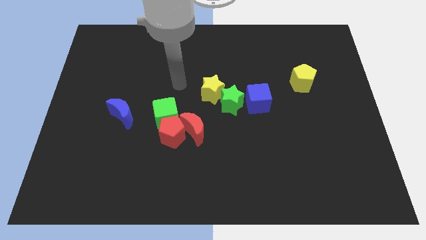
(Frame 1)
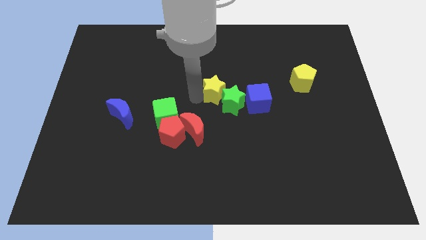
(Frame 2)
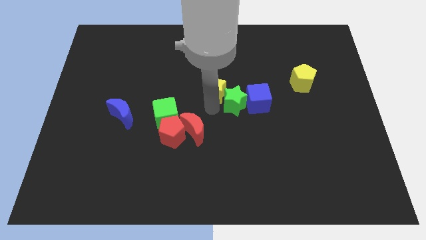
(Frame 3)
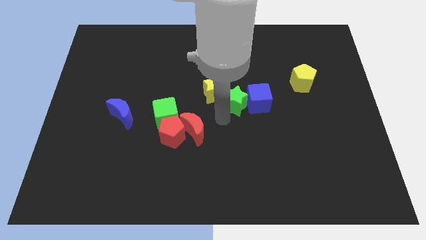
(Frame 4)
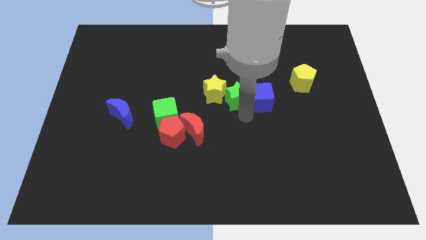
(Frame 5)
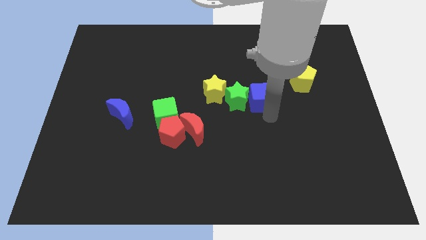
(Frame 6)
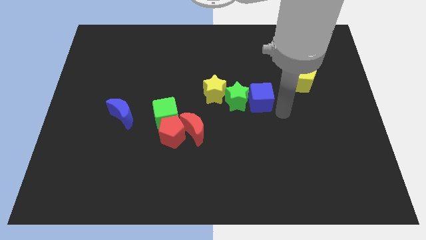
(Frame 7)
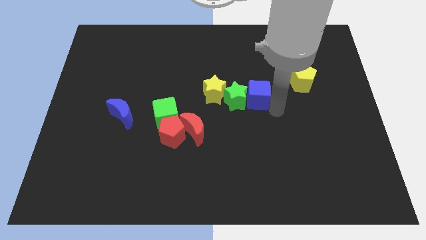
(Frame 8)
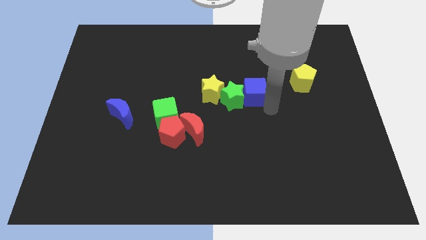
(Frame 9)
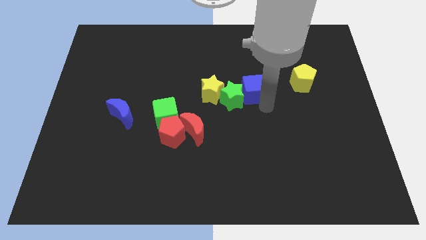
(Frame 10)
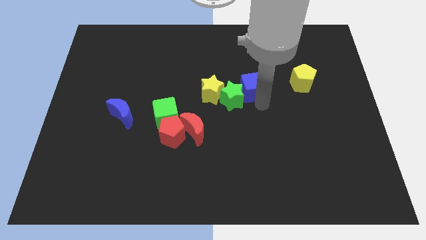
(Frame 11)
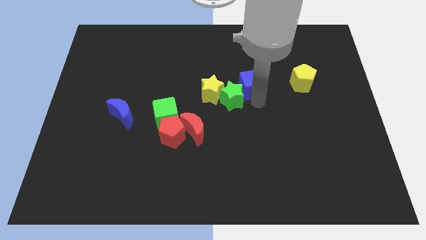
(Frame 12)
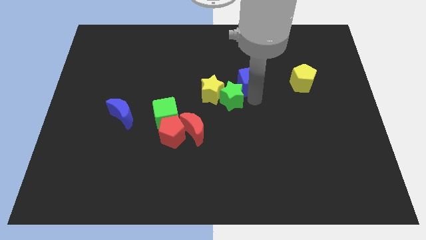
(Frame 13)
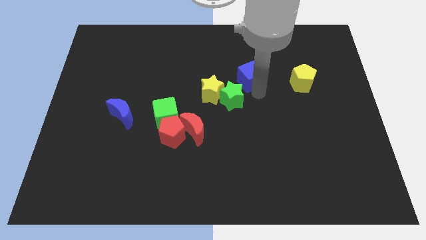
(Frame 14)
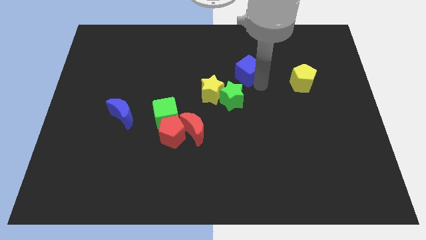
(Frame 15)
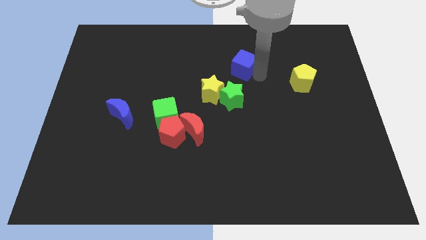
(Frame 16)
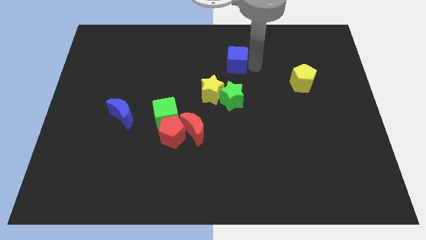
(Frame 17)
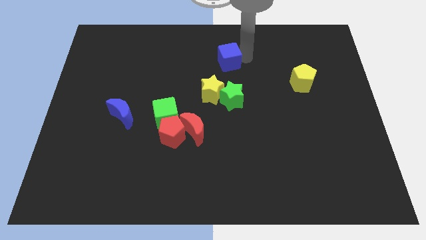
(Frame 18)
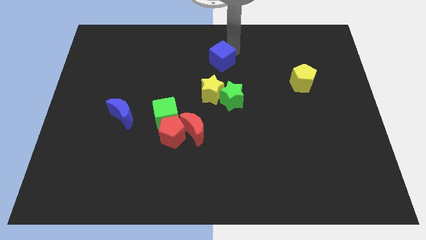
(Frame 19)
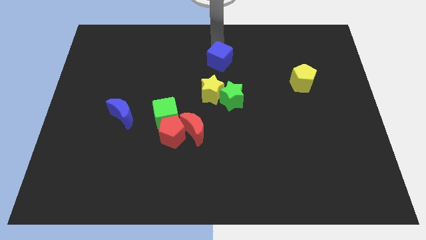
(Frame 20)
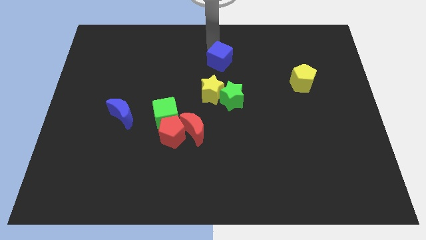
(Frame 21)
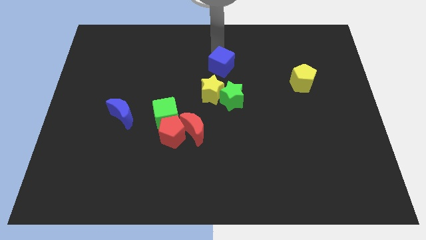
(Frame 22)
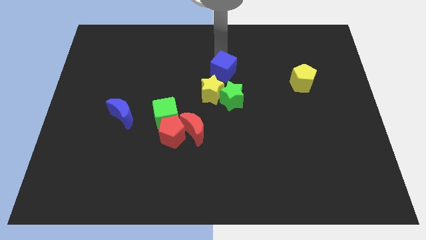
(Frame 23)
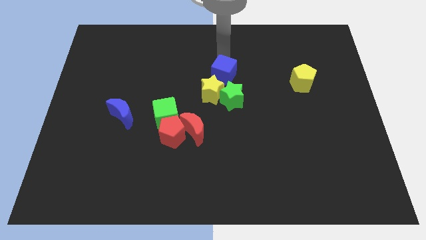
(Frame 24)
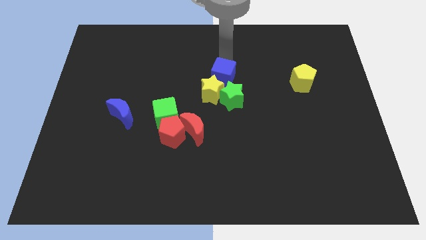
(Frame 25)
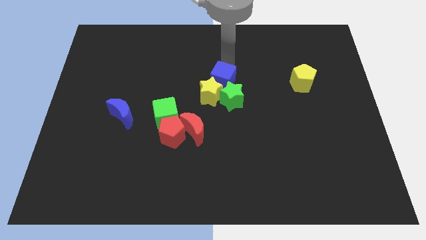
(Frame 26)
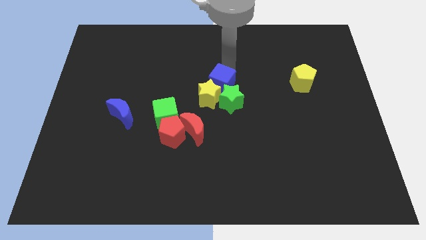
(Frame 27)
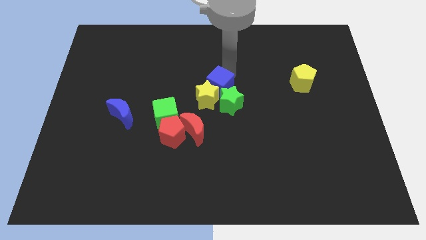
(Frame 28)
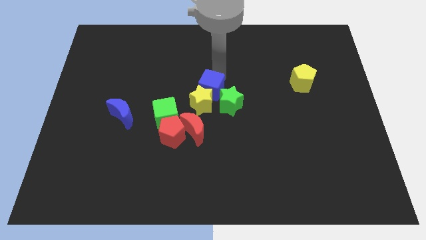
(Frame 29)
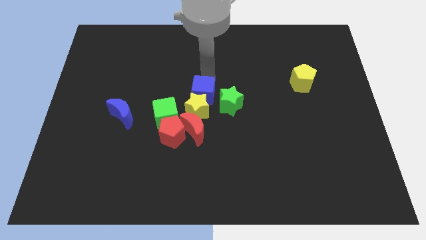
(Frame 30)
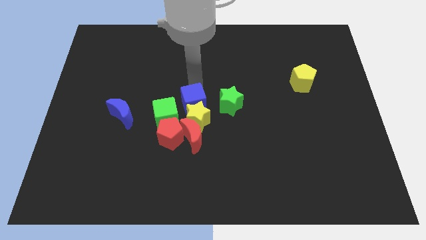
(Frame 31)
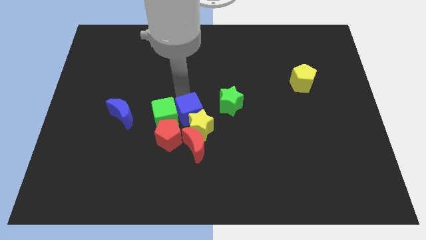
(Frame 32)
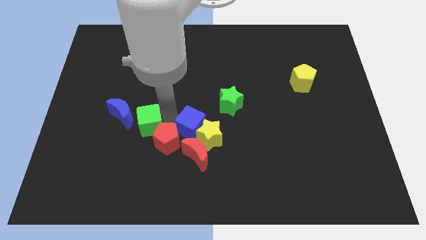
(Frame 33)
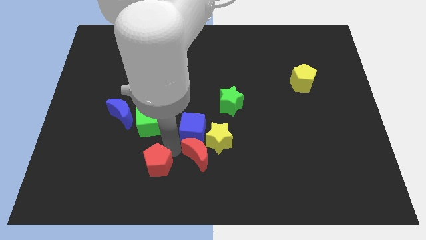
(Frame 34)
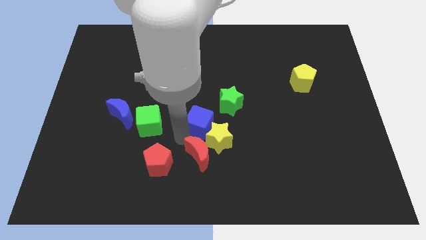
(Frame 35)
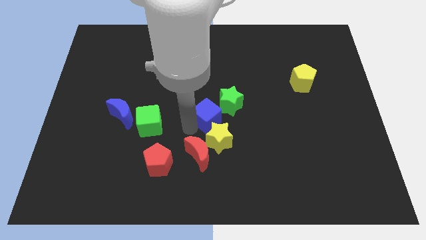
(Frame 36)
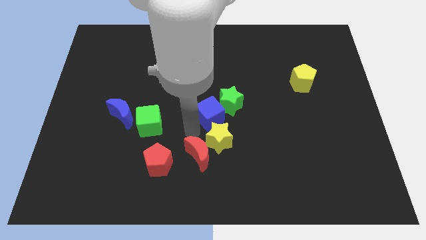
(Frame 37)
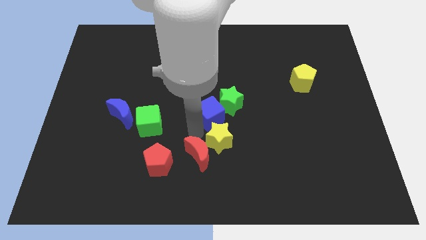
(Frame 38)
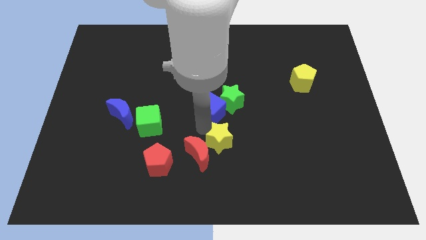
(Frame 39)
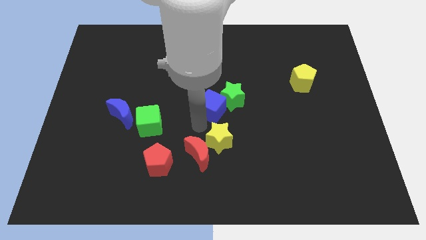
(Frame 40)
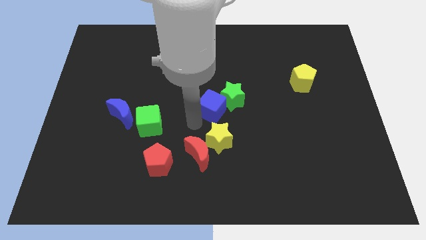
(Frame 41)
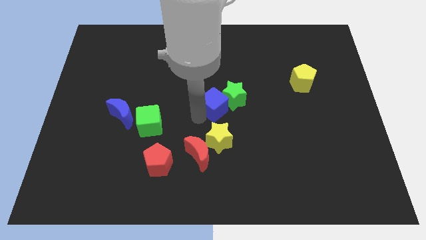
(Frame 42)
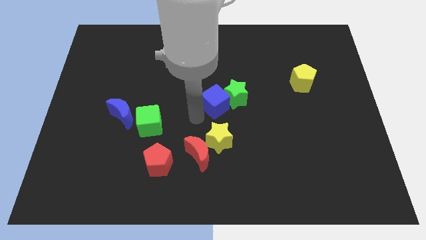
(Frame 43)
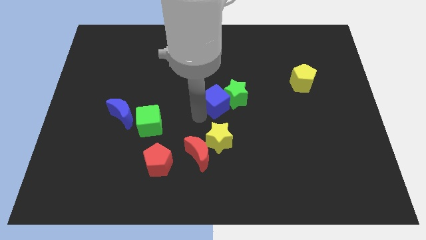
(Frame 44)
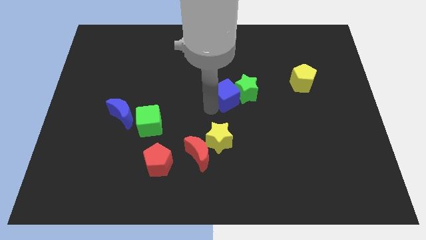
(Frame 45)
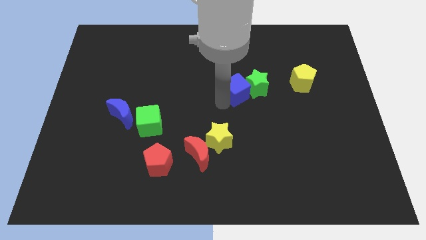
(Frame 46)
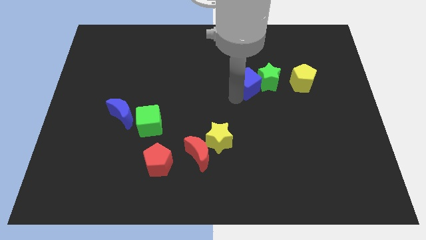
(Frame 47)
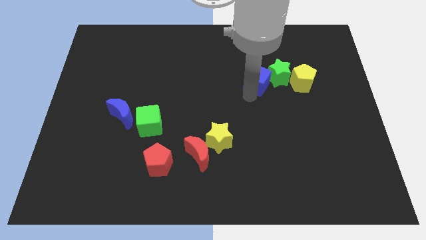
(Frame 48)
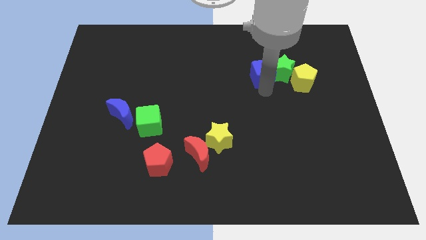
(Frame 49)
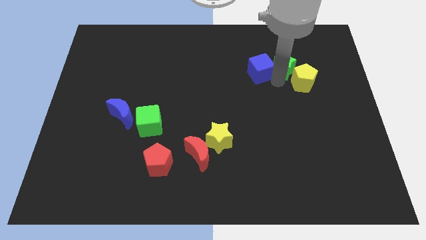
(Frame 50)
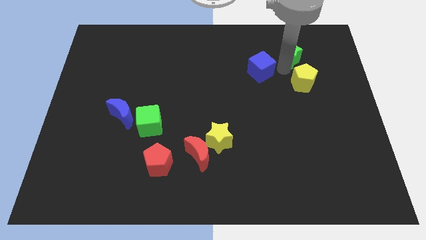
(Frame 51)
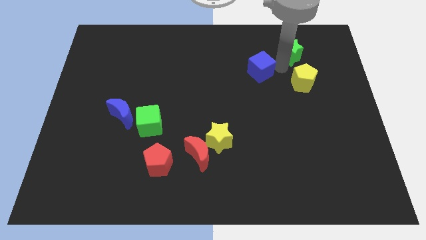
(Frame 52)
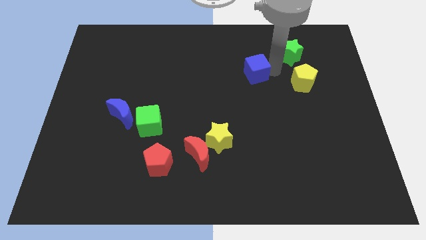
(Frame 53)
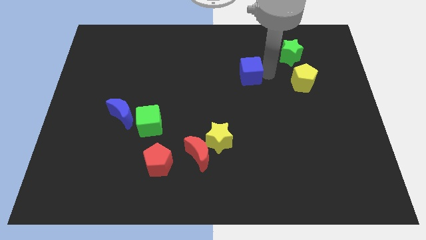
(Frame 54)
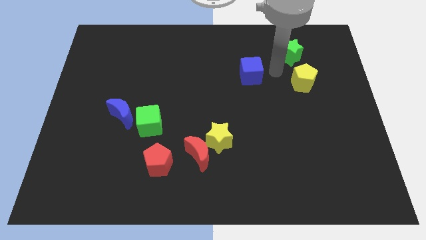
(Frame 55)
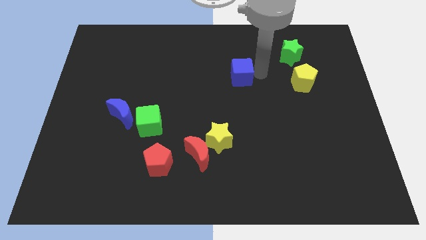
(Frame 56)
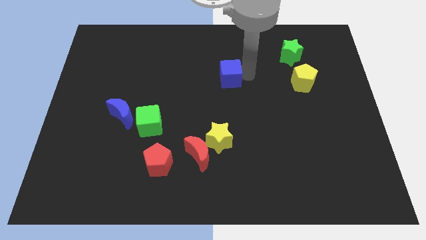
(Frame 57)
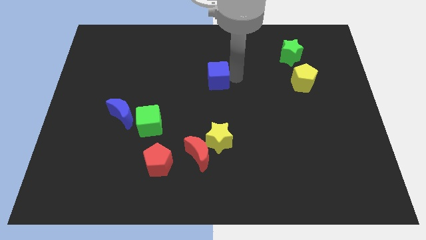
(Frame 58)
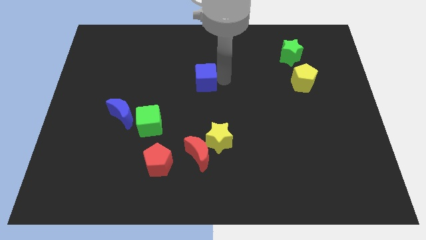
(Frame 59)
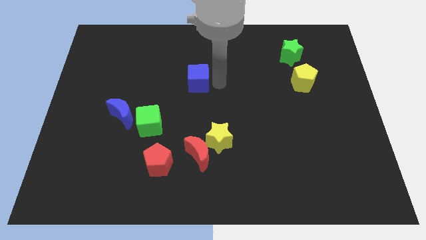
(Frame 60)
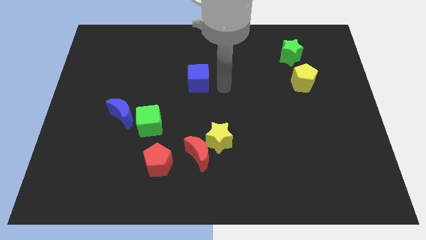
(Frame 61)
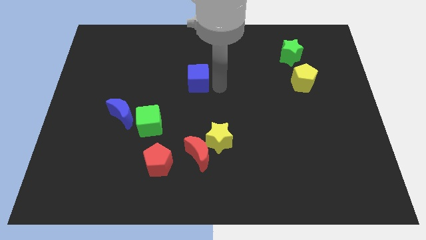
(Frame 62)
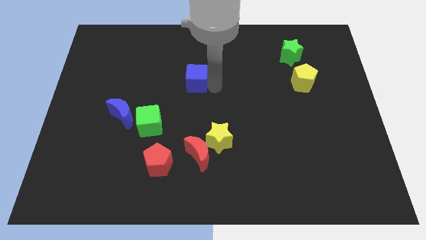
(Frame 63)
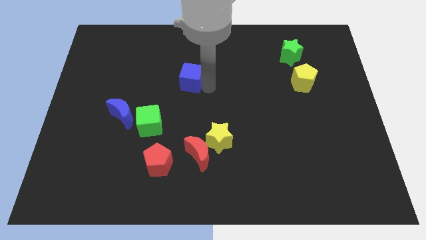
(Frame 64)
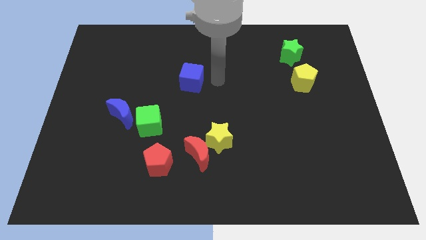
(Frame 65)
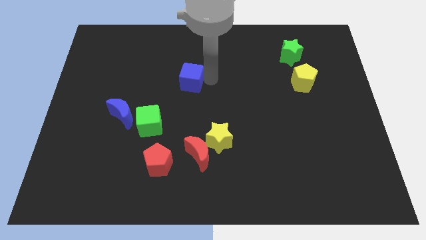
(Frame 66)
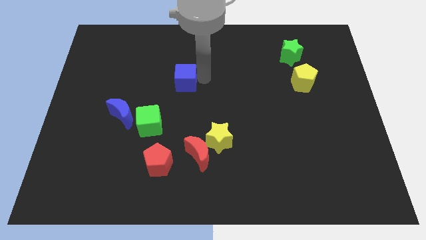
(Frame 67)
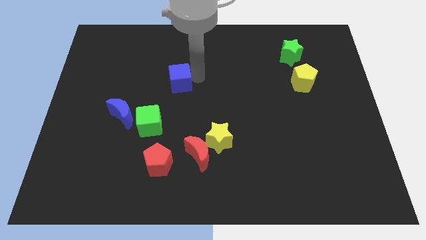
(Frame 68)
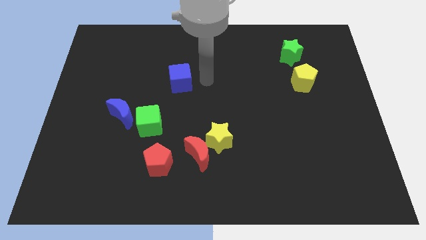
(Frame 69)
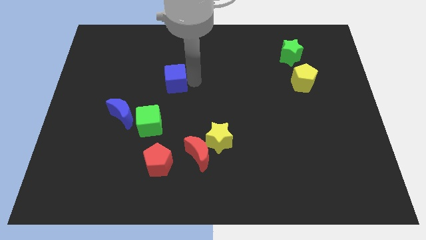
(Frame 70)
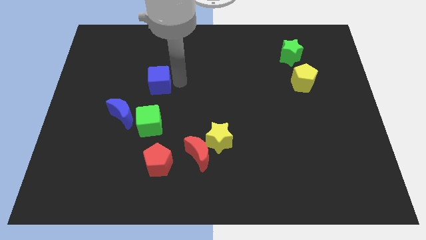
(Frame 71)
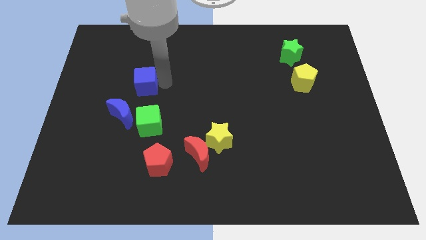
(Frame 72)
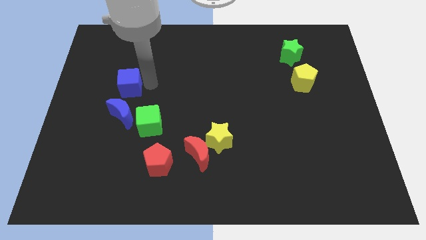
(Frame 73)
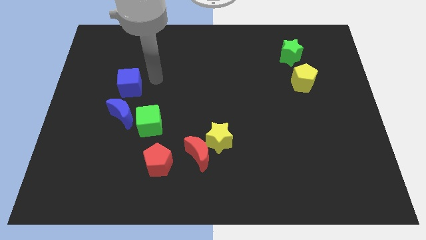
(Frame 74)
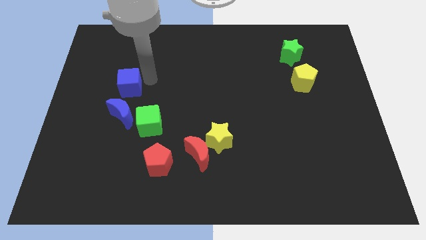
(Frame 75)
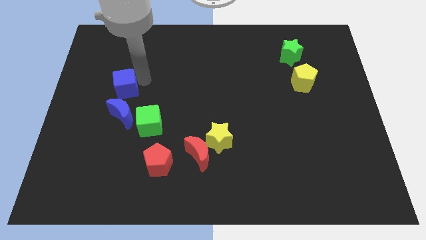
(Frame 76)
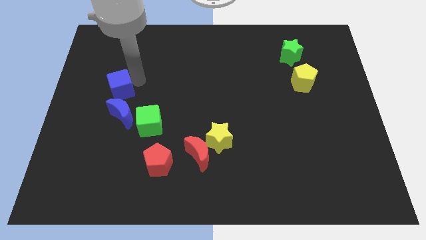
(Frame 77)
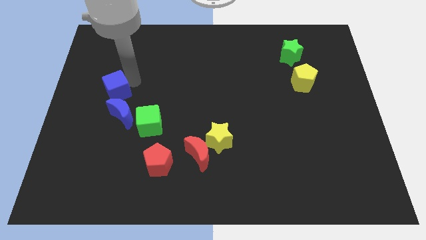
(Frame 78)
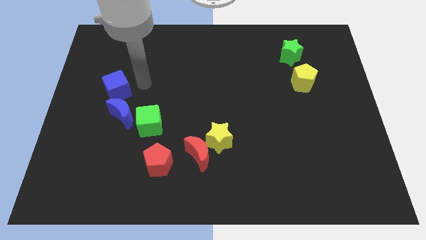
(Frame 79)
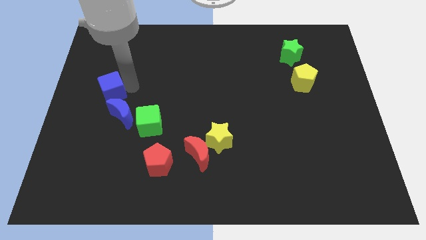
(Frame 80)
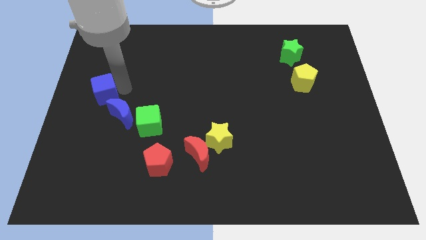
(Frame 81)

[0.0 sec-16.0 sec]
slide the blue cube to the left side
